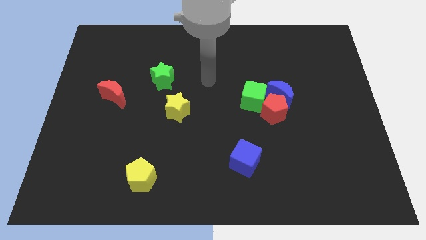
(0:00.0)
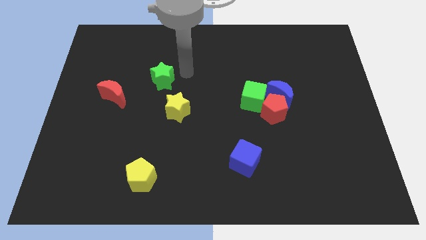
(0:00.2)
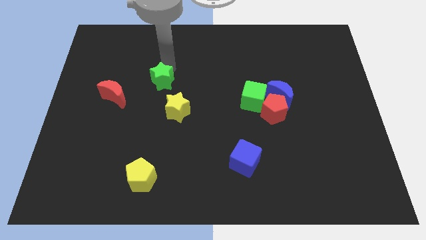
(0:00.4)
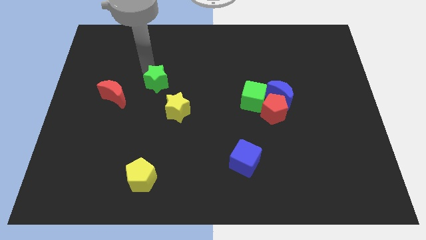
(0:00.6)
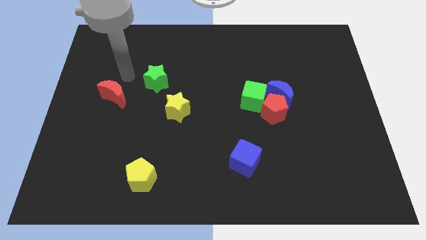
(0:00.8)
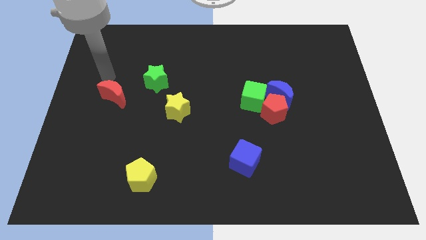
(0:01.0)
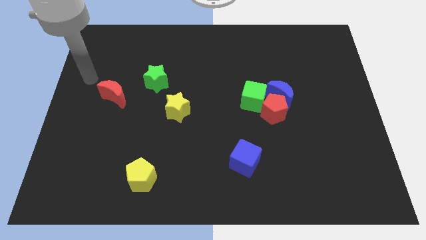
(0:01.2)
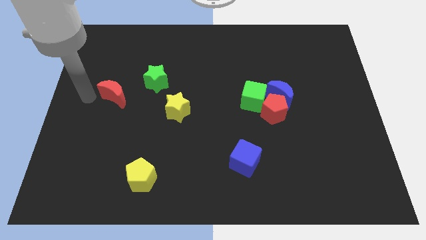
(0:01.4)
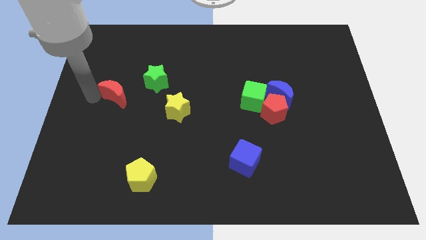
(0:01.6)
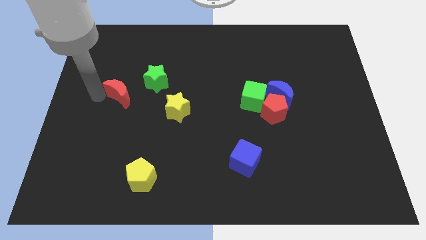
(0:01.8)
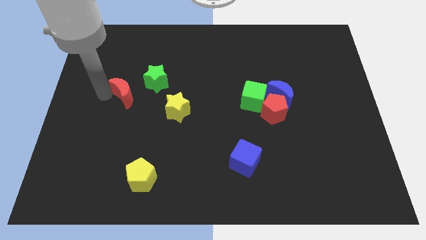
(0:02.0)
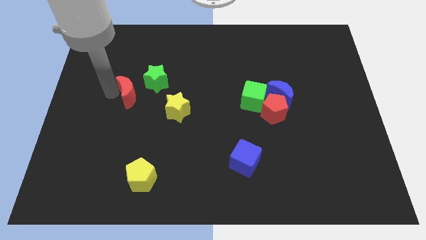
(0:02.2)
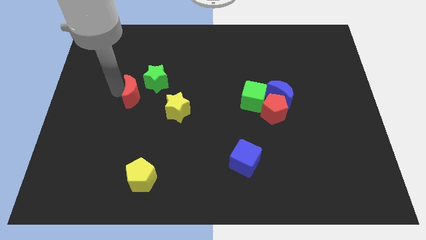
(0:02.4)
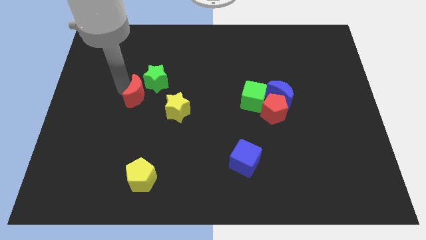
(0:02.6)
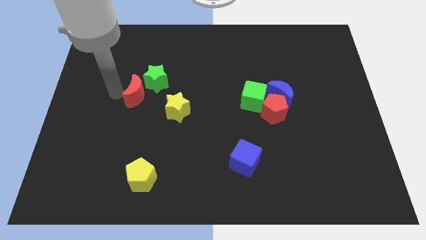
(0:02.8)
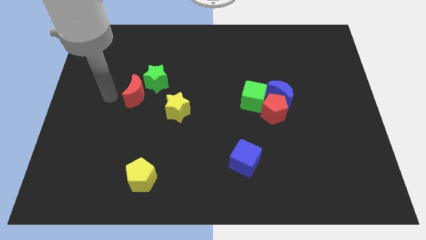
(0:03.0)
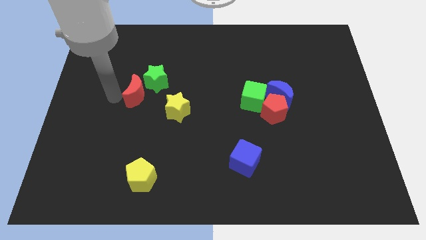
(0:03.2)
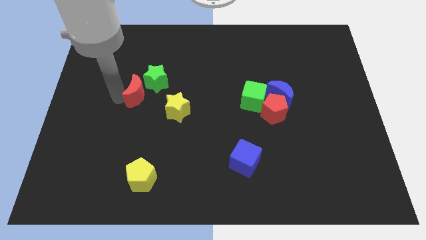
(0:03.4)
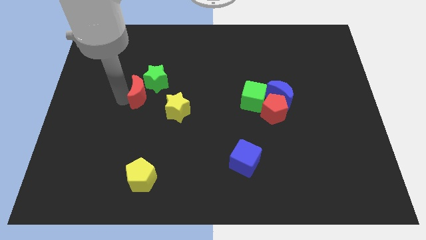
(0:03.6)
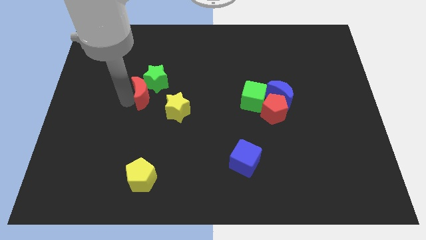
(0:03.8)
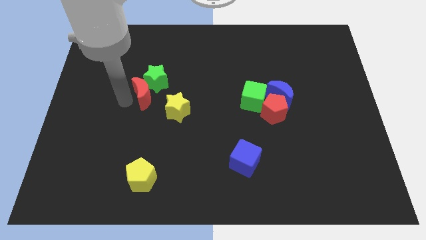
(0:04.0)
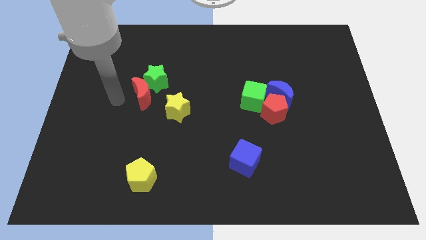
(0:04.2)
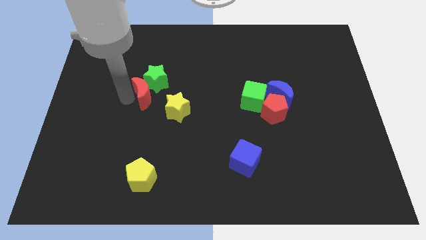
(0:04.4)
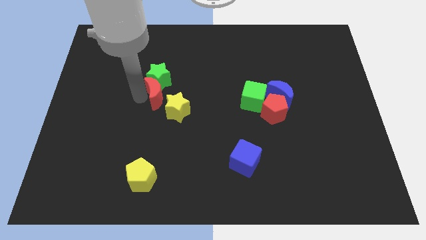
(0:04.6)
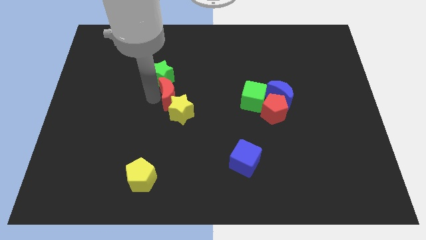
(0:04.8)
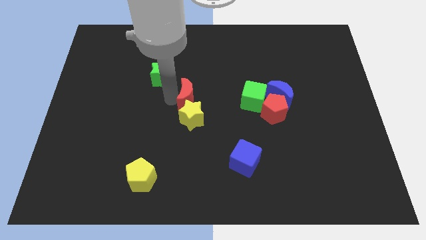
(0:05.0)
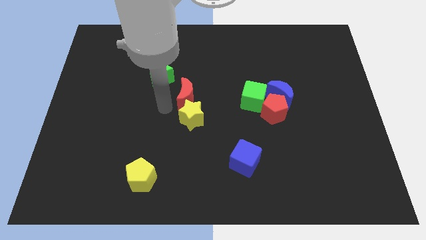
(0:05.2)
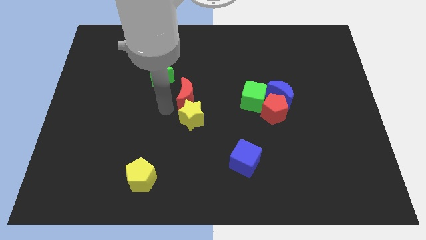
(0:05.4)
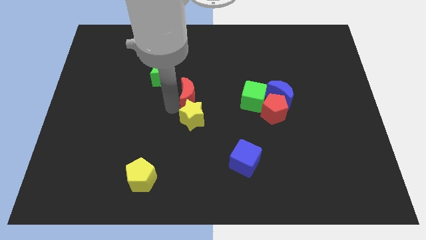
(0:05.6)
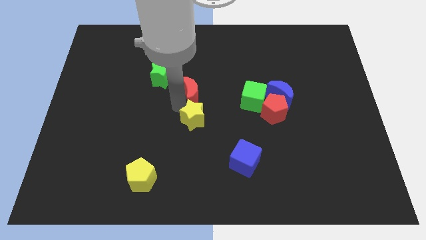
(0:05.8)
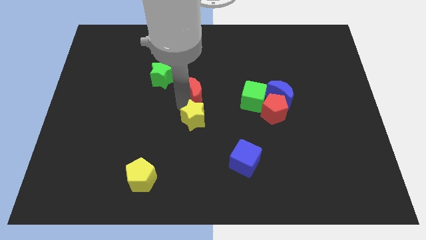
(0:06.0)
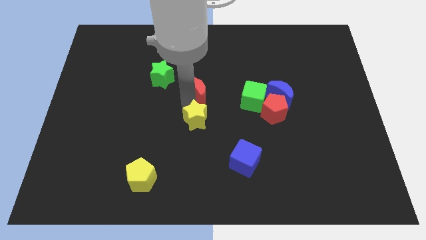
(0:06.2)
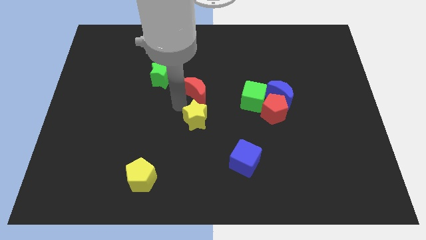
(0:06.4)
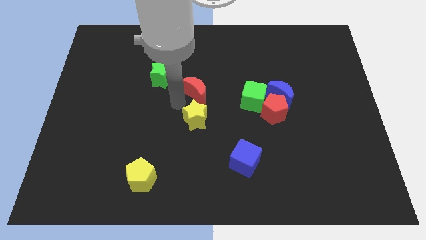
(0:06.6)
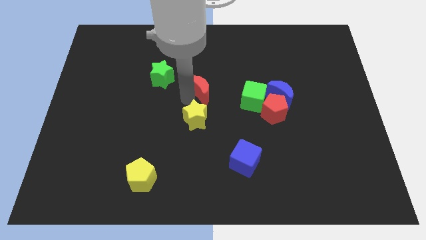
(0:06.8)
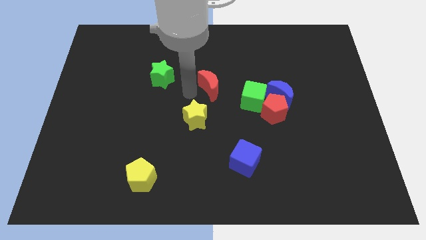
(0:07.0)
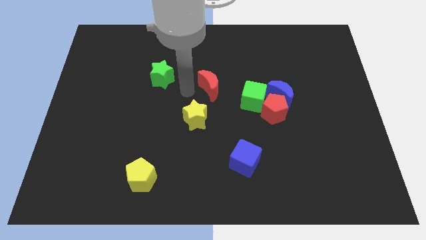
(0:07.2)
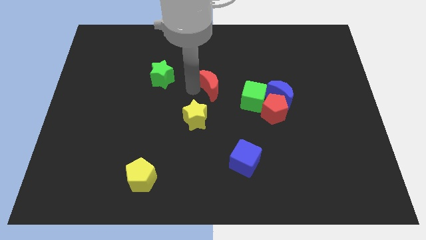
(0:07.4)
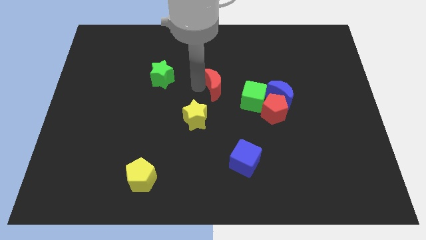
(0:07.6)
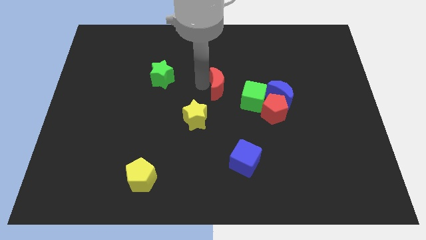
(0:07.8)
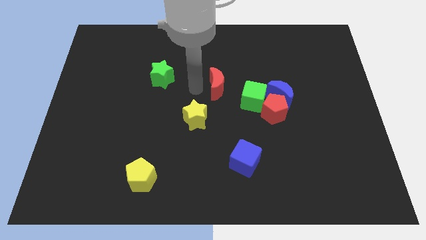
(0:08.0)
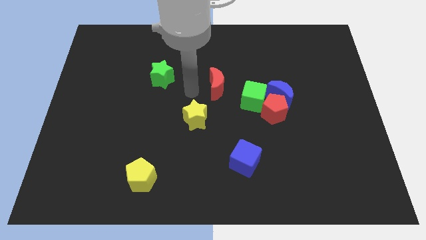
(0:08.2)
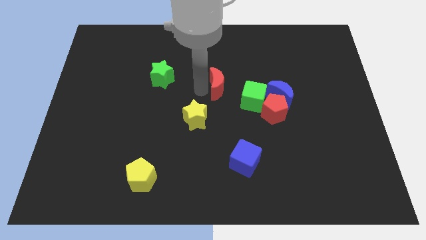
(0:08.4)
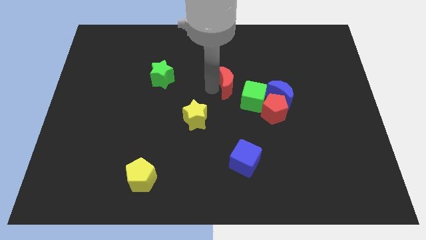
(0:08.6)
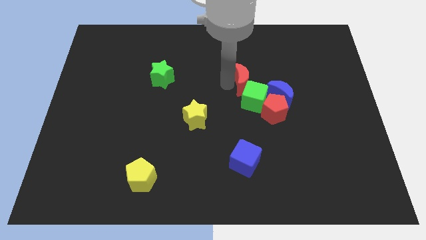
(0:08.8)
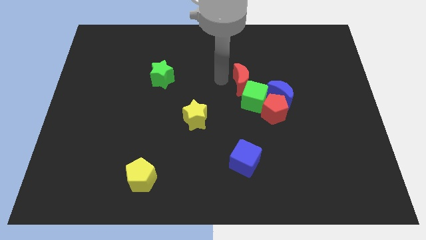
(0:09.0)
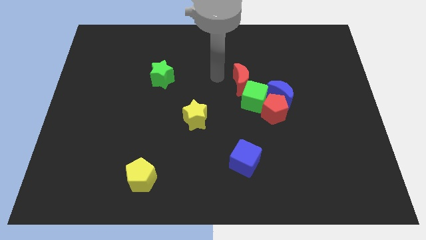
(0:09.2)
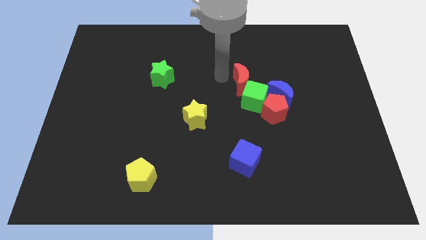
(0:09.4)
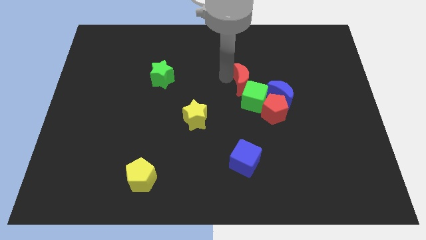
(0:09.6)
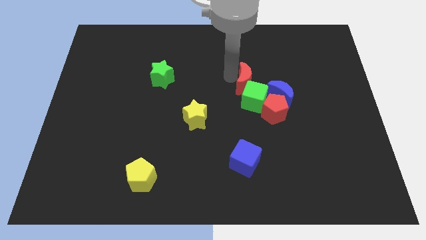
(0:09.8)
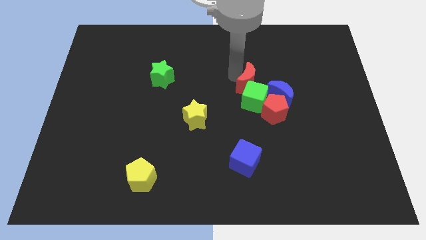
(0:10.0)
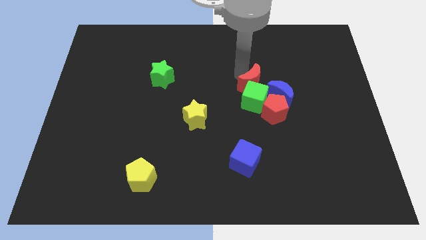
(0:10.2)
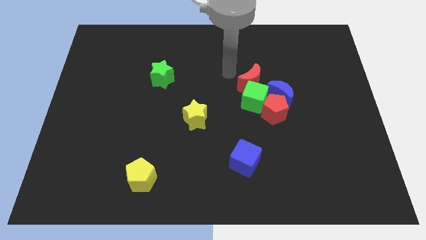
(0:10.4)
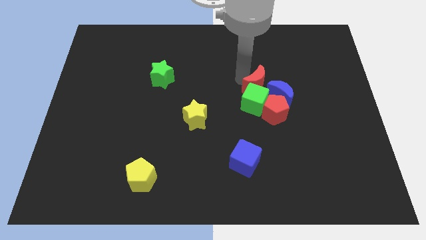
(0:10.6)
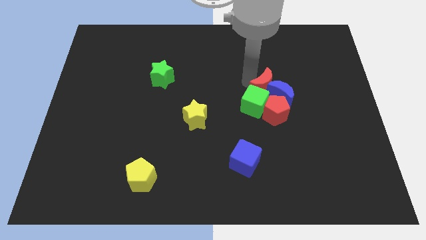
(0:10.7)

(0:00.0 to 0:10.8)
slide the red moon close to the blue moon

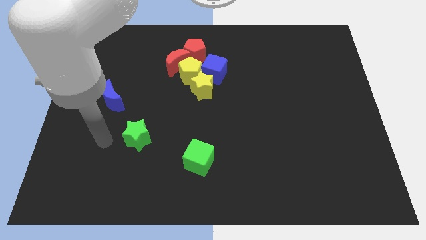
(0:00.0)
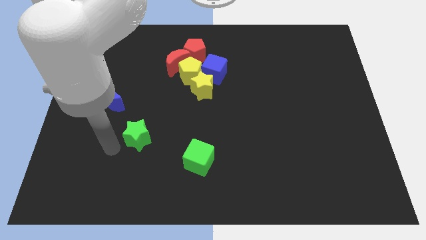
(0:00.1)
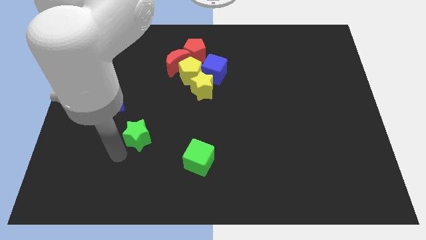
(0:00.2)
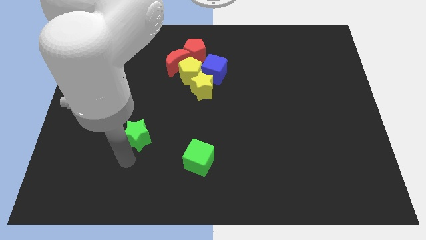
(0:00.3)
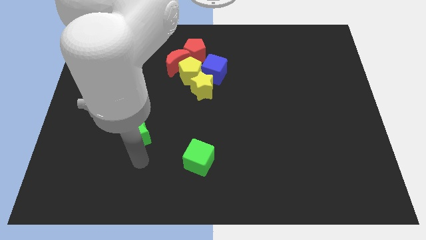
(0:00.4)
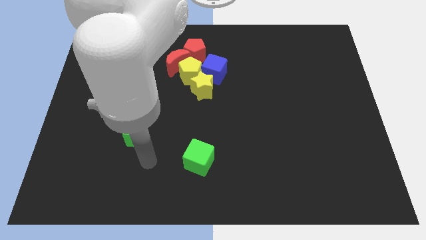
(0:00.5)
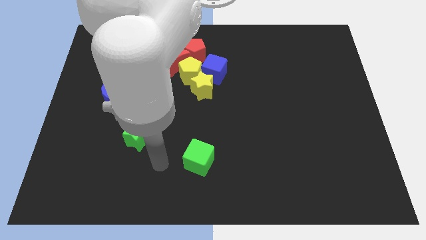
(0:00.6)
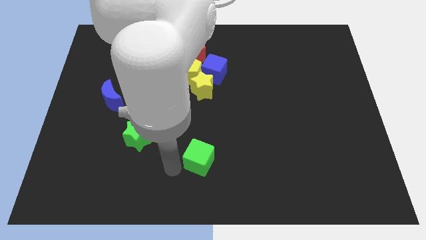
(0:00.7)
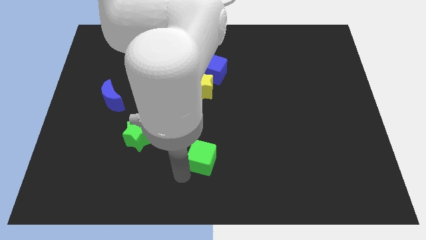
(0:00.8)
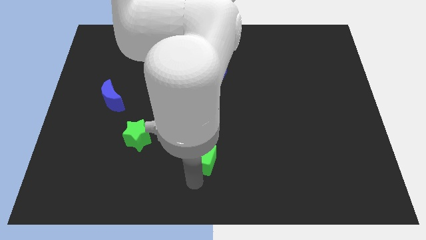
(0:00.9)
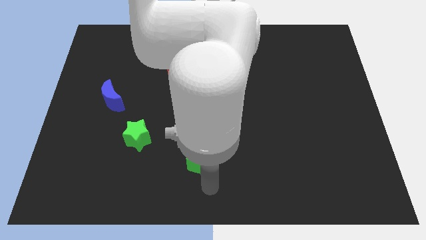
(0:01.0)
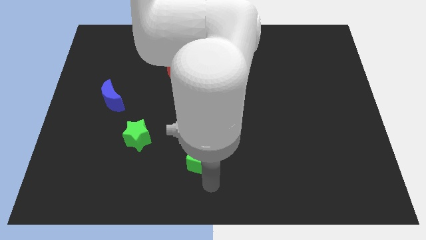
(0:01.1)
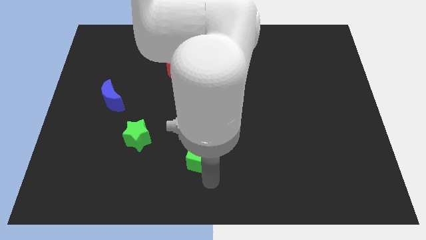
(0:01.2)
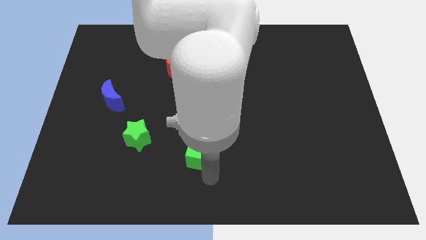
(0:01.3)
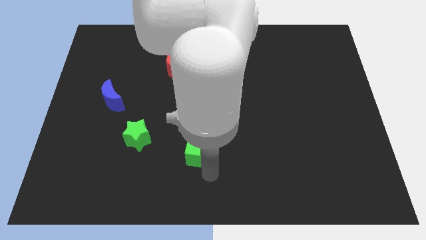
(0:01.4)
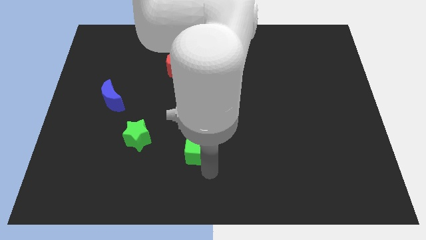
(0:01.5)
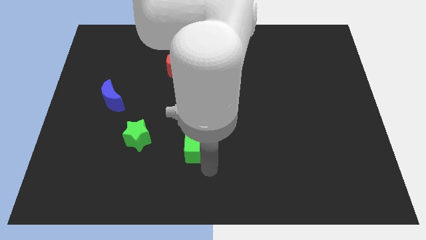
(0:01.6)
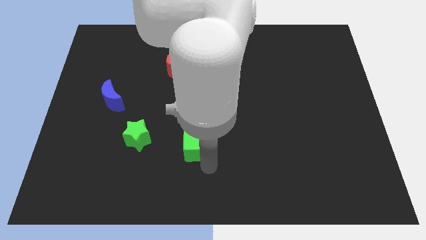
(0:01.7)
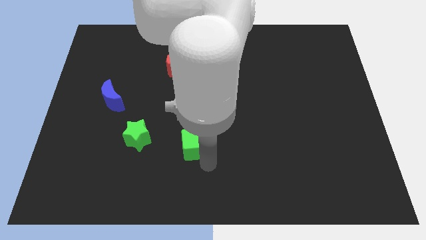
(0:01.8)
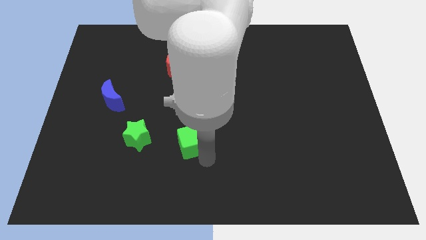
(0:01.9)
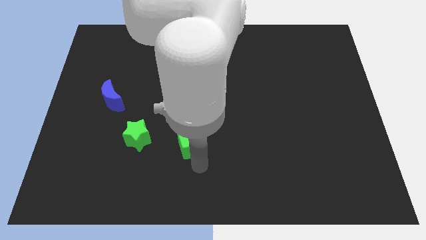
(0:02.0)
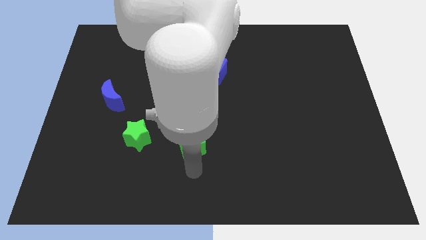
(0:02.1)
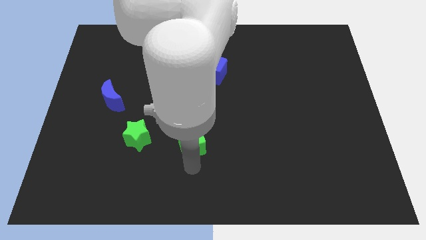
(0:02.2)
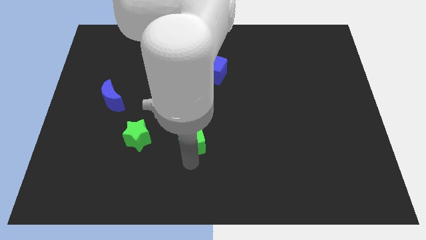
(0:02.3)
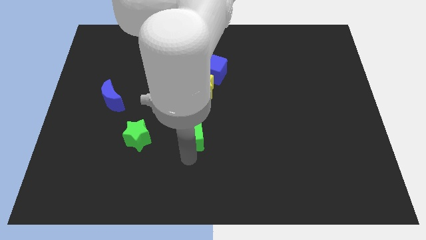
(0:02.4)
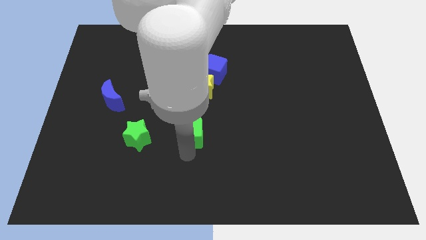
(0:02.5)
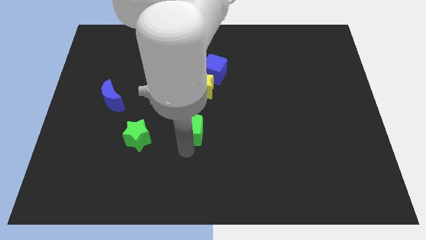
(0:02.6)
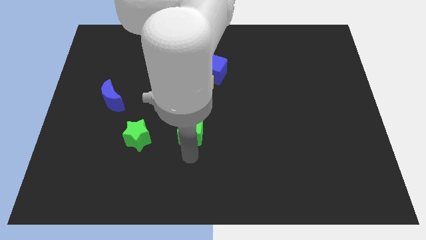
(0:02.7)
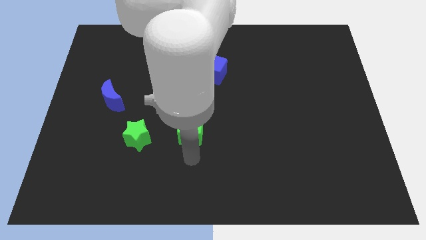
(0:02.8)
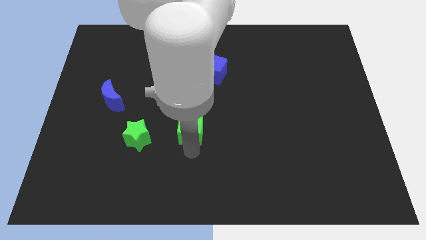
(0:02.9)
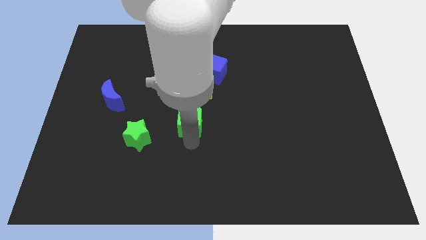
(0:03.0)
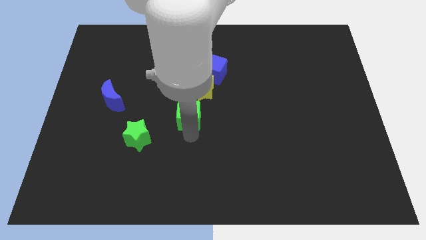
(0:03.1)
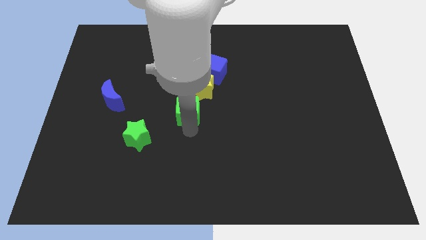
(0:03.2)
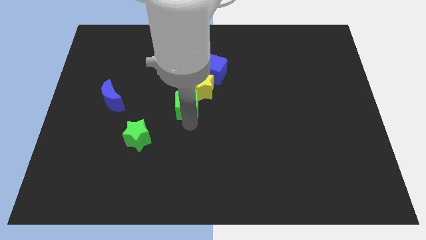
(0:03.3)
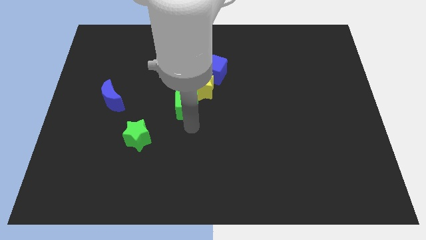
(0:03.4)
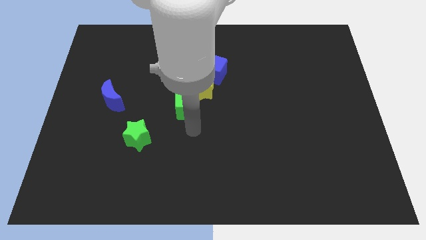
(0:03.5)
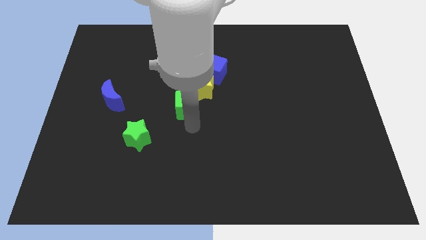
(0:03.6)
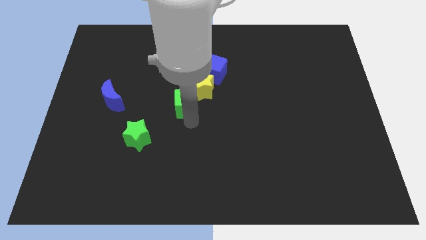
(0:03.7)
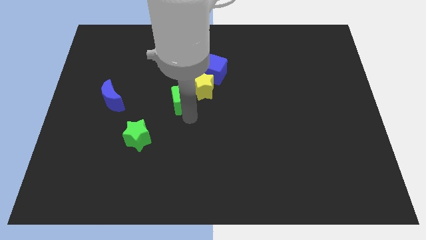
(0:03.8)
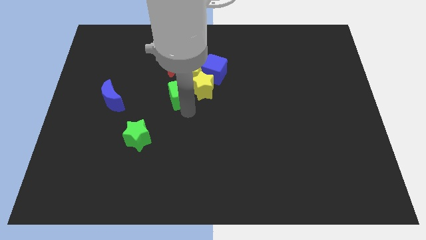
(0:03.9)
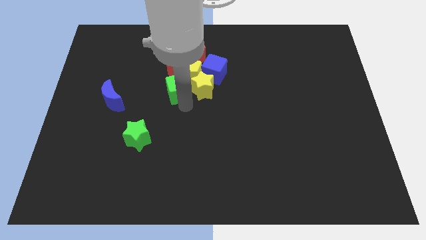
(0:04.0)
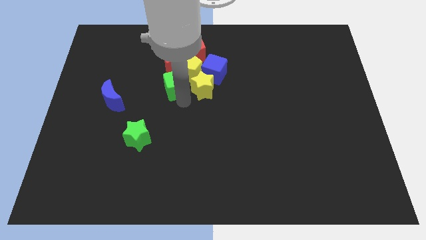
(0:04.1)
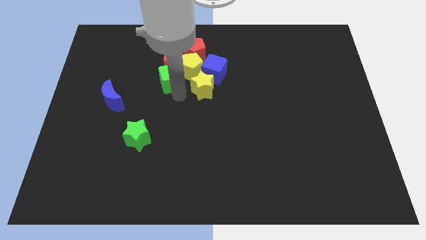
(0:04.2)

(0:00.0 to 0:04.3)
push the green cube next to the red moon
